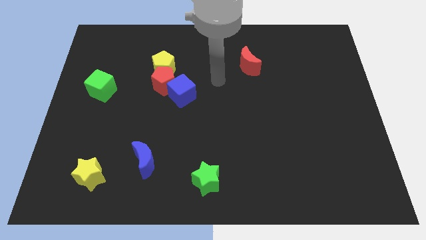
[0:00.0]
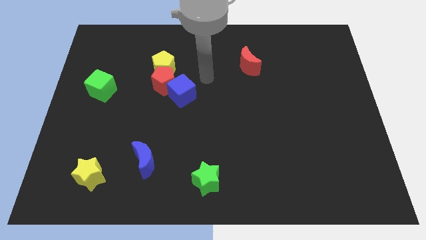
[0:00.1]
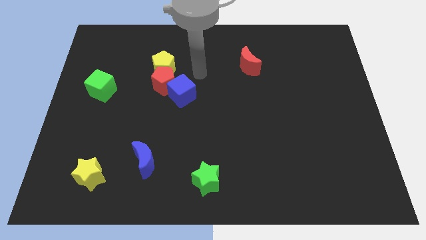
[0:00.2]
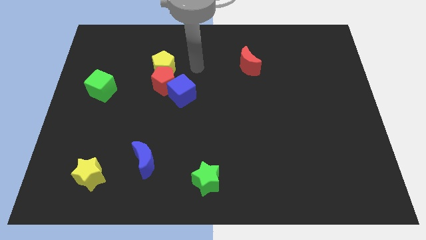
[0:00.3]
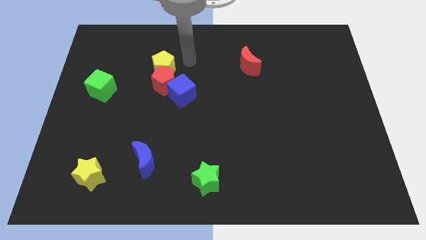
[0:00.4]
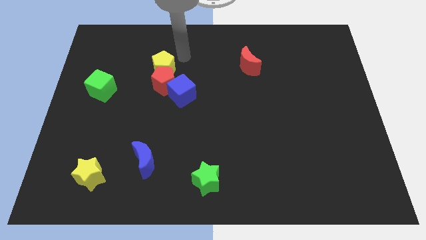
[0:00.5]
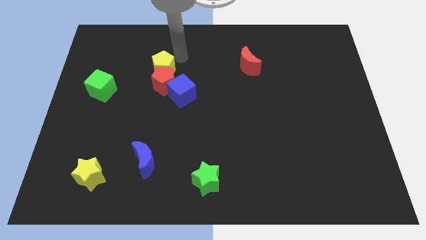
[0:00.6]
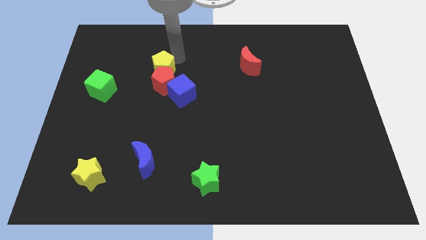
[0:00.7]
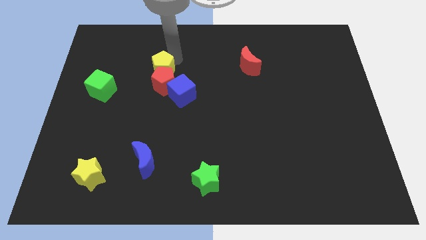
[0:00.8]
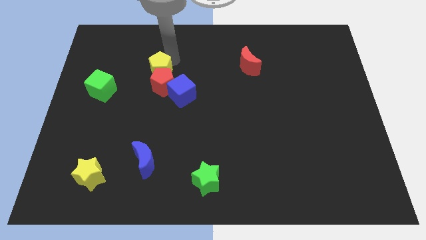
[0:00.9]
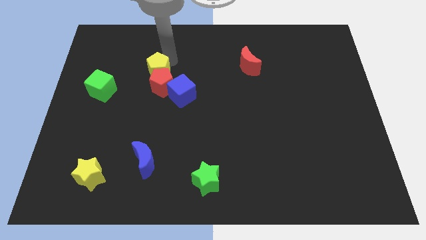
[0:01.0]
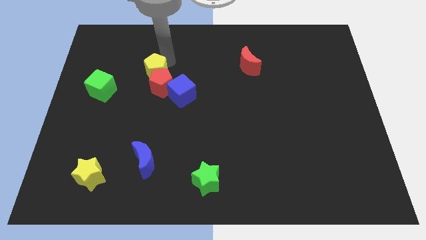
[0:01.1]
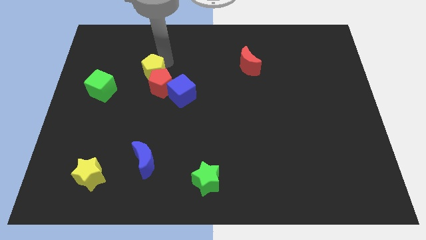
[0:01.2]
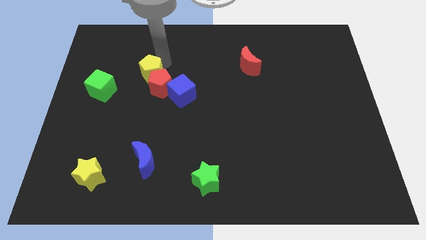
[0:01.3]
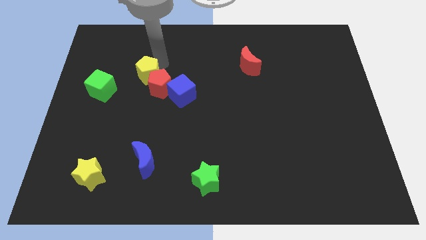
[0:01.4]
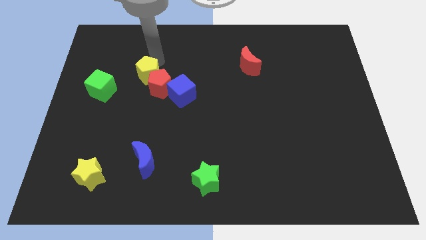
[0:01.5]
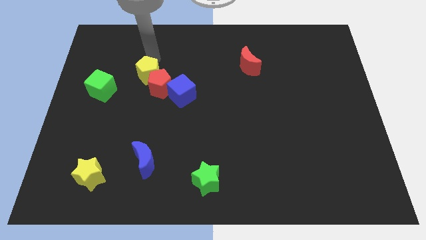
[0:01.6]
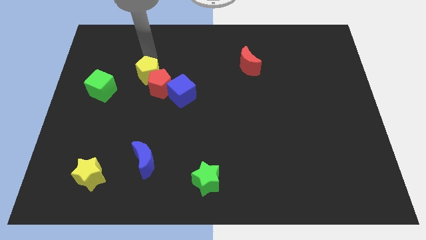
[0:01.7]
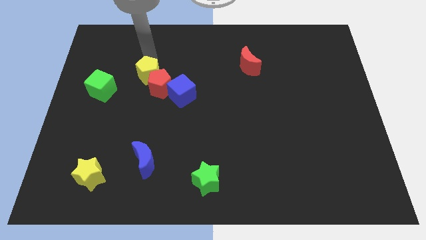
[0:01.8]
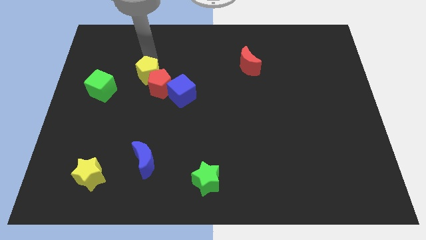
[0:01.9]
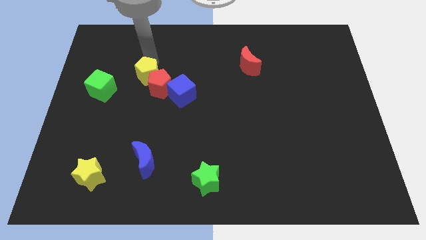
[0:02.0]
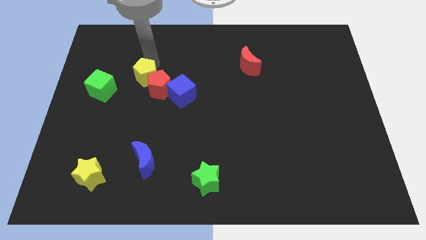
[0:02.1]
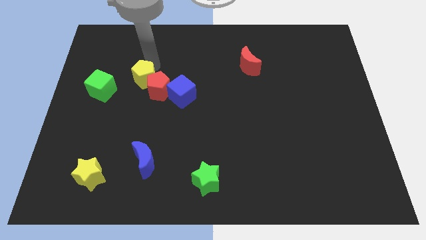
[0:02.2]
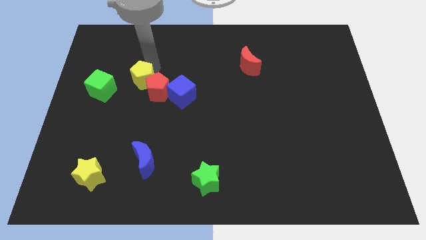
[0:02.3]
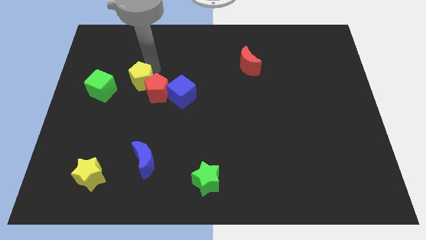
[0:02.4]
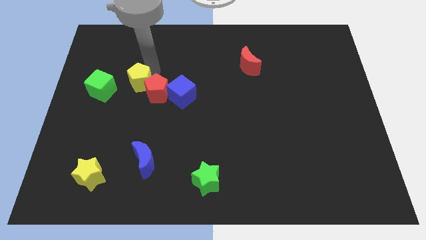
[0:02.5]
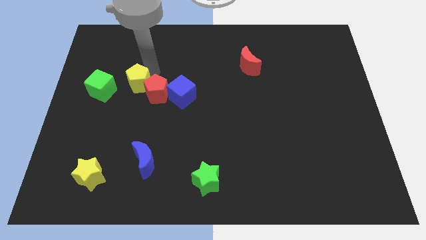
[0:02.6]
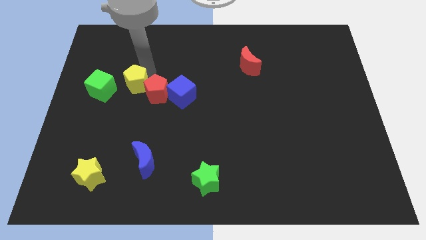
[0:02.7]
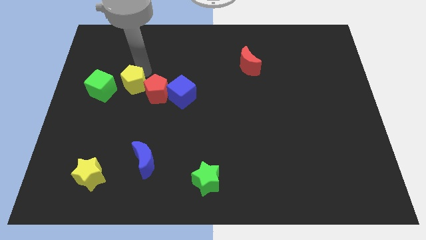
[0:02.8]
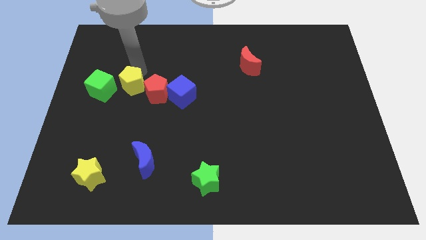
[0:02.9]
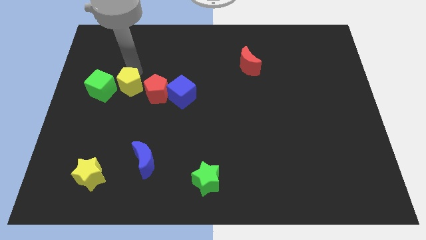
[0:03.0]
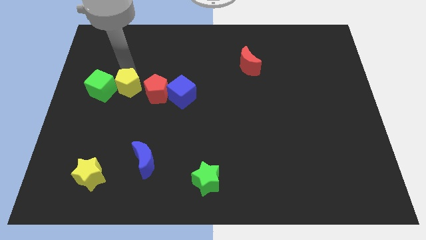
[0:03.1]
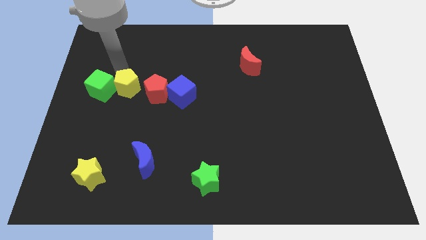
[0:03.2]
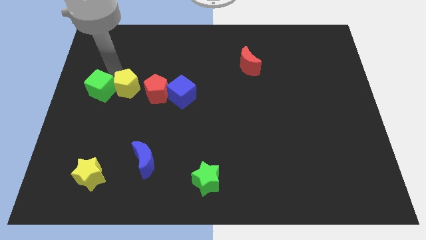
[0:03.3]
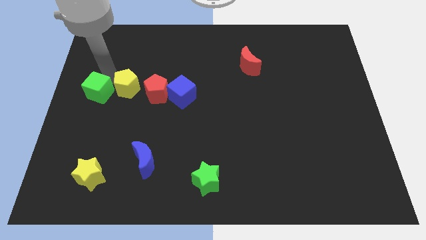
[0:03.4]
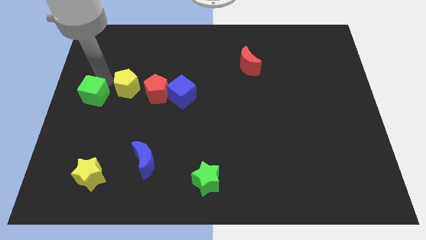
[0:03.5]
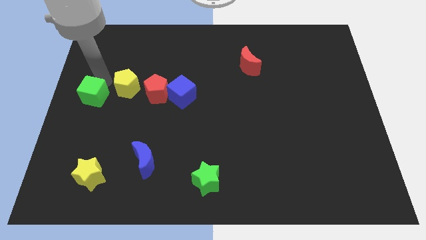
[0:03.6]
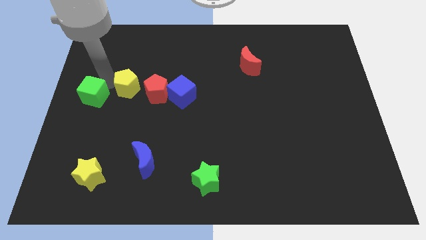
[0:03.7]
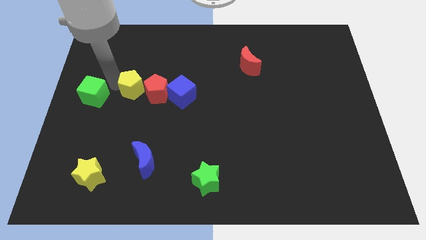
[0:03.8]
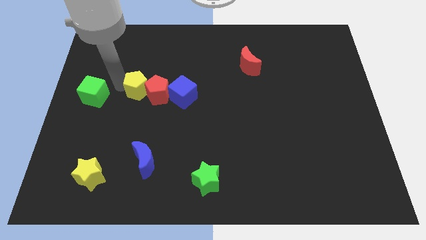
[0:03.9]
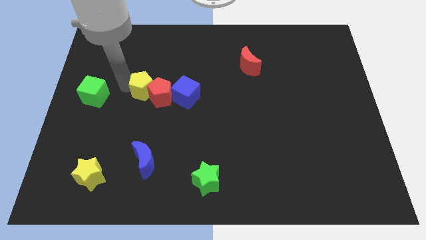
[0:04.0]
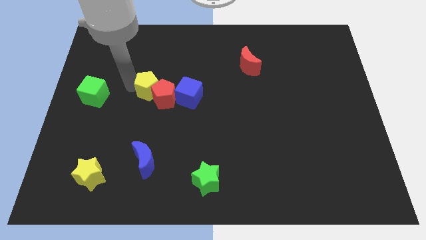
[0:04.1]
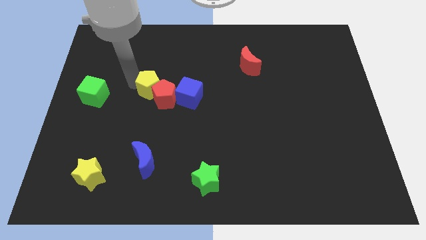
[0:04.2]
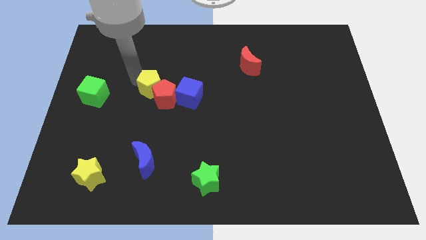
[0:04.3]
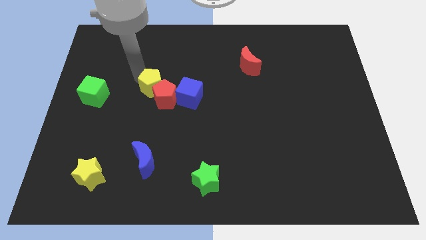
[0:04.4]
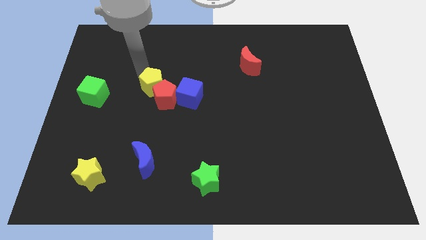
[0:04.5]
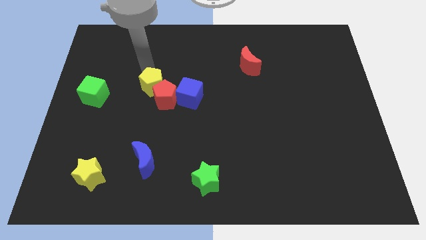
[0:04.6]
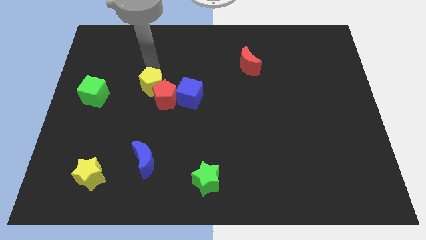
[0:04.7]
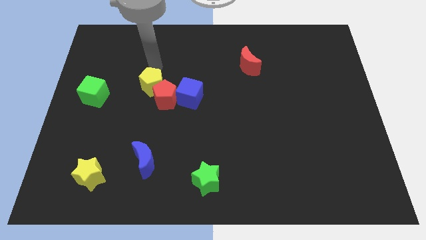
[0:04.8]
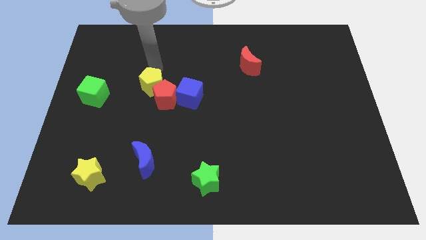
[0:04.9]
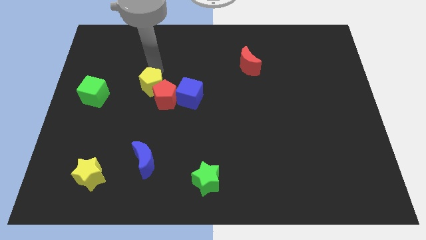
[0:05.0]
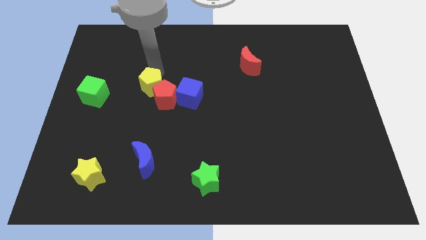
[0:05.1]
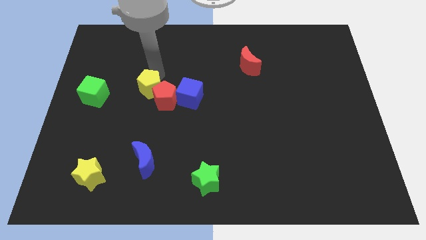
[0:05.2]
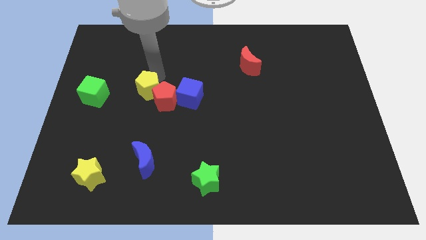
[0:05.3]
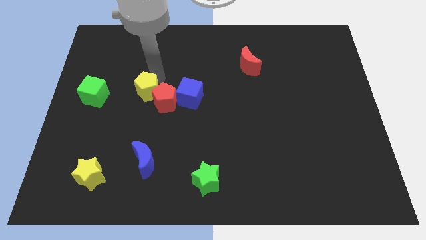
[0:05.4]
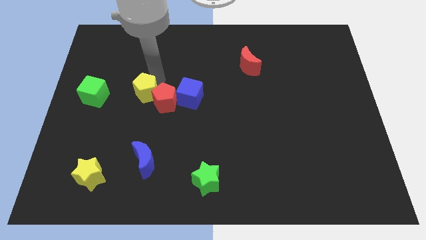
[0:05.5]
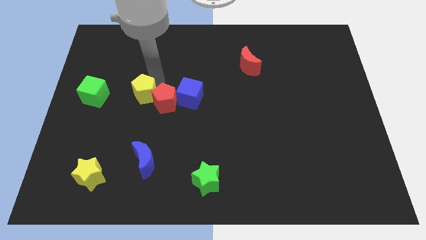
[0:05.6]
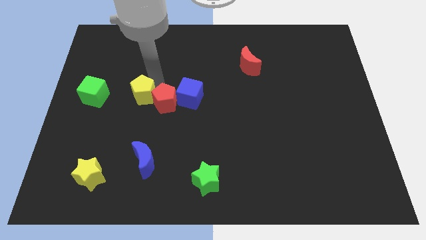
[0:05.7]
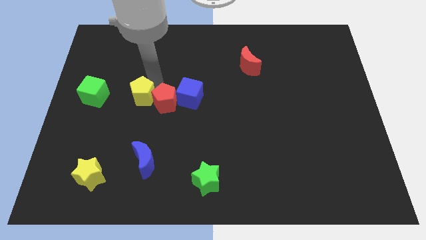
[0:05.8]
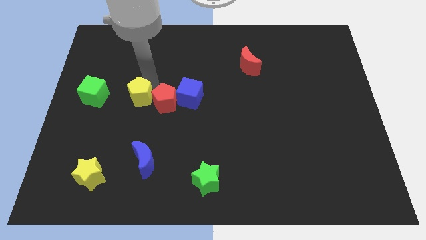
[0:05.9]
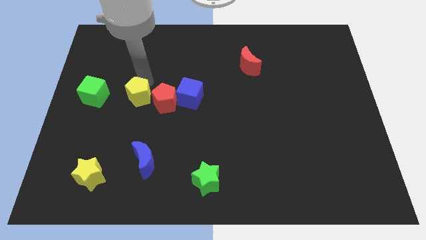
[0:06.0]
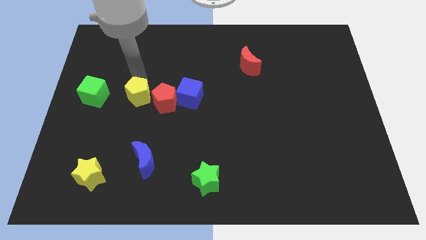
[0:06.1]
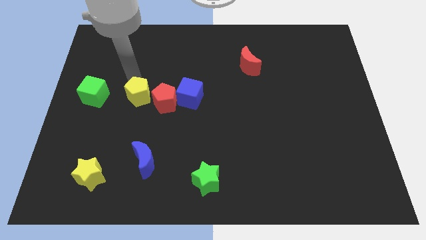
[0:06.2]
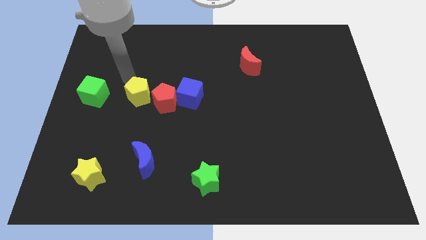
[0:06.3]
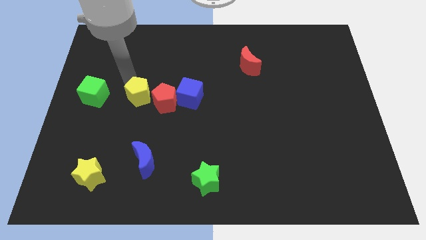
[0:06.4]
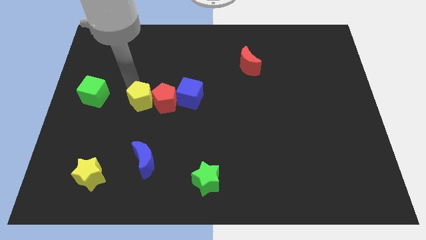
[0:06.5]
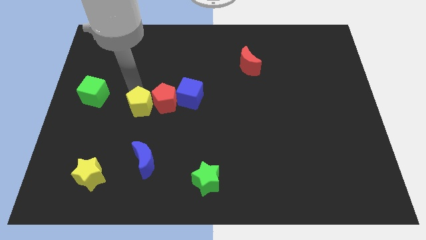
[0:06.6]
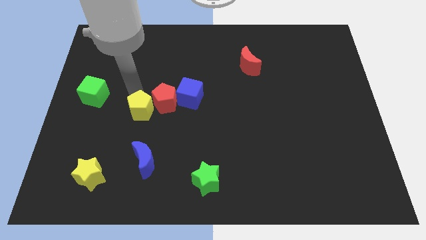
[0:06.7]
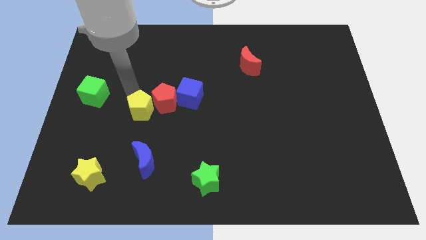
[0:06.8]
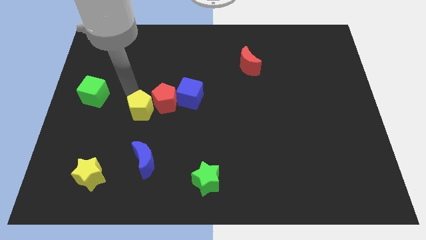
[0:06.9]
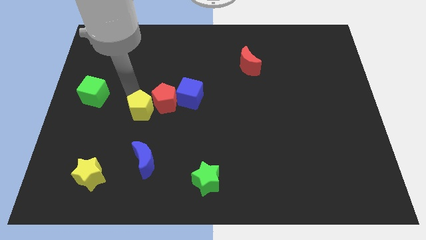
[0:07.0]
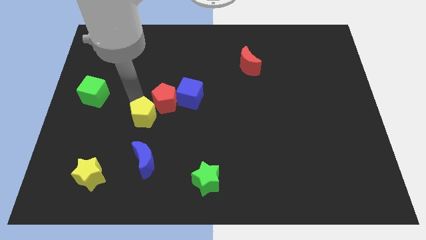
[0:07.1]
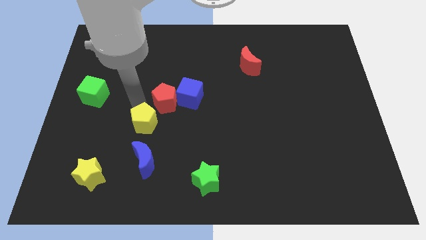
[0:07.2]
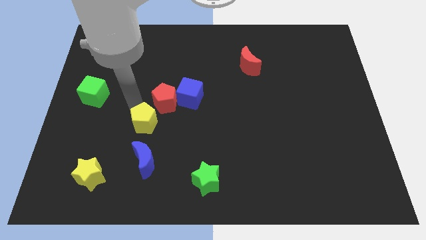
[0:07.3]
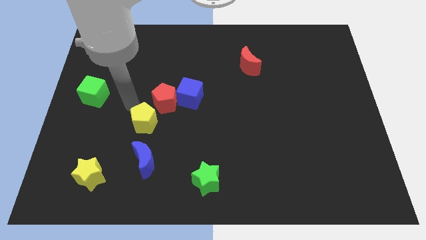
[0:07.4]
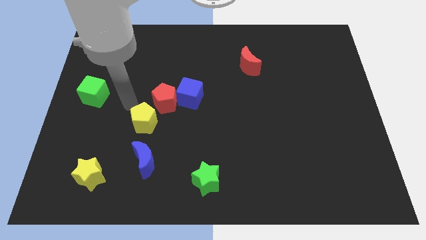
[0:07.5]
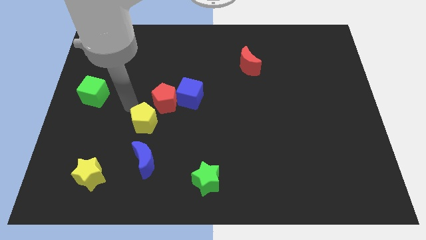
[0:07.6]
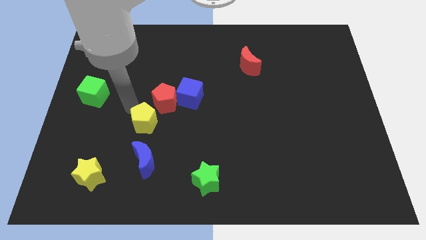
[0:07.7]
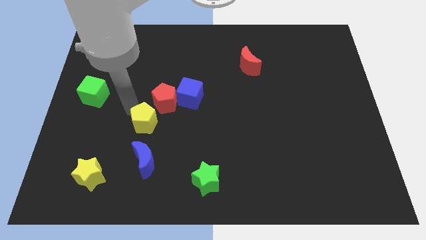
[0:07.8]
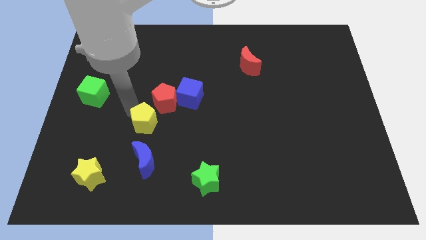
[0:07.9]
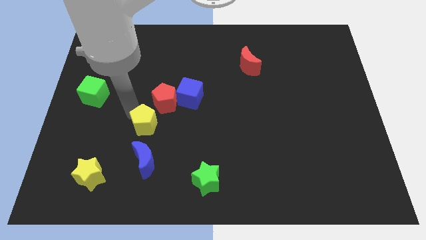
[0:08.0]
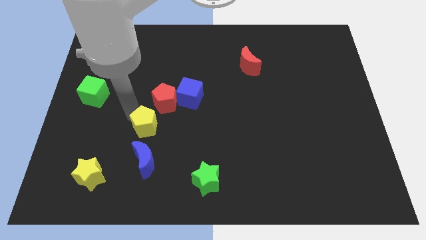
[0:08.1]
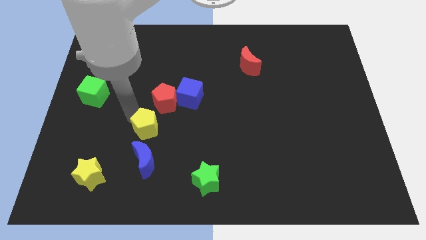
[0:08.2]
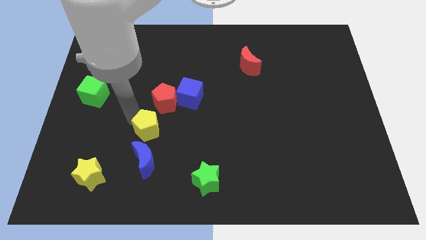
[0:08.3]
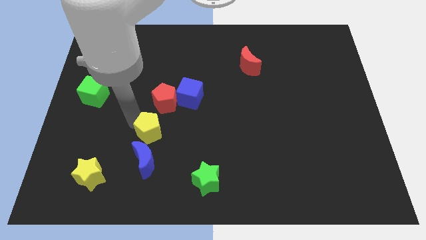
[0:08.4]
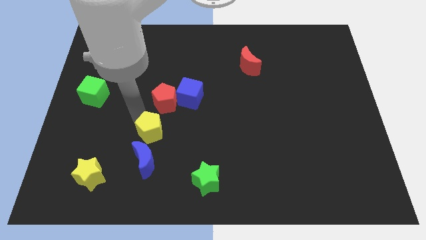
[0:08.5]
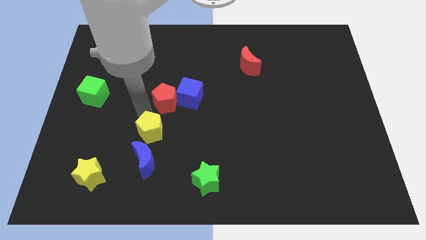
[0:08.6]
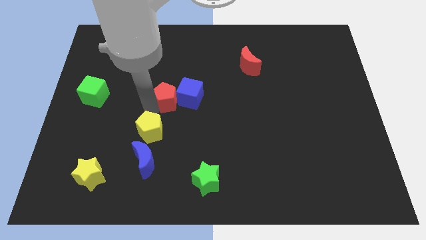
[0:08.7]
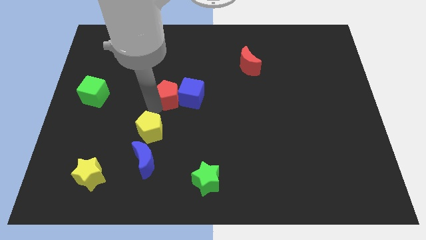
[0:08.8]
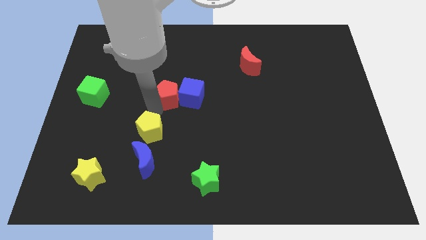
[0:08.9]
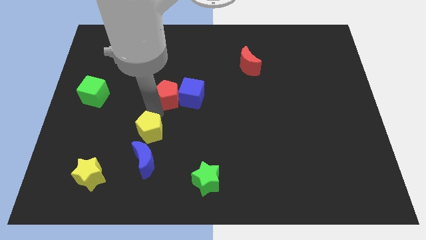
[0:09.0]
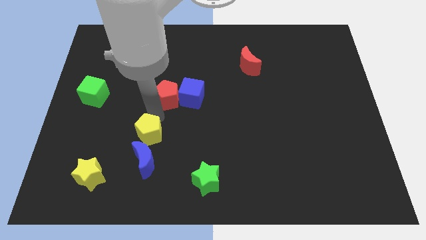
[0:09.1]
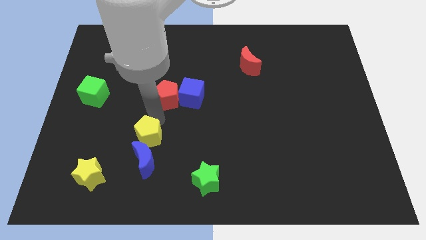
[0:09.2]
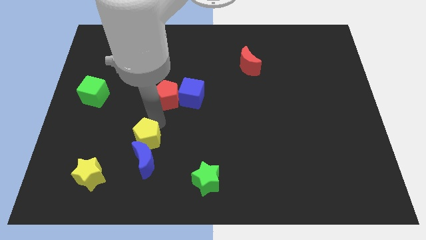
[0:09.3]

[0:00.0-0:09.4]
push the yellow pentagon to the blue moon
